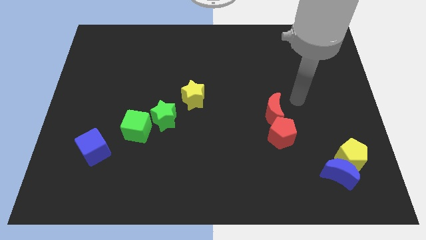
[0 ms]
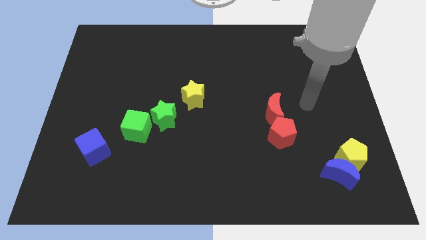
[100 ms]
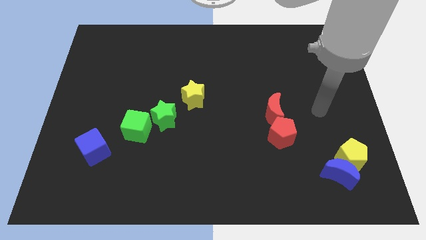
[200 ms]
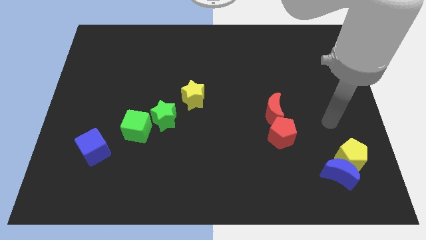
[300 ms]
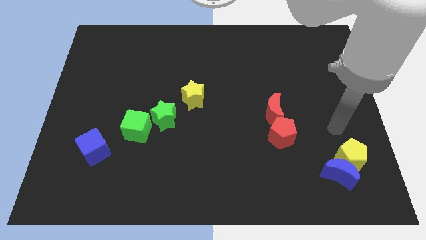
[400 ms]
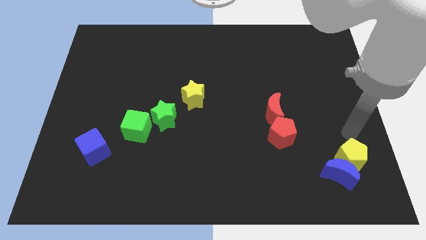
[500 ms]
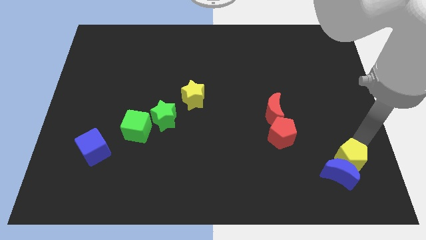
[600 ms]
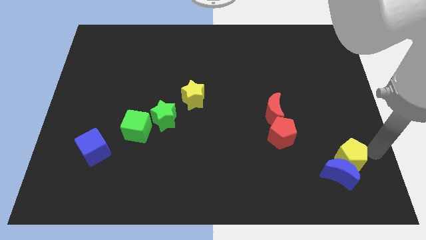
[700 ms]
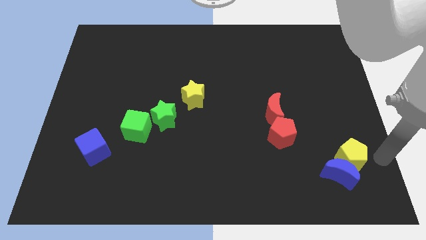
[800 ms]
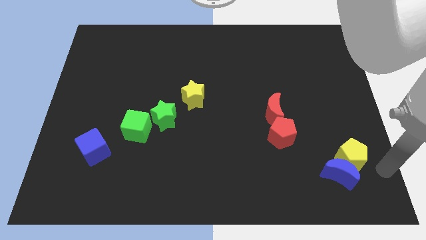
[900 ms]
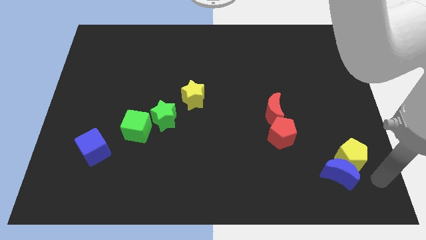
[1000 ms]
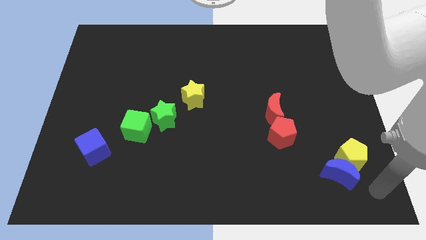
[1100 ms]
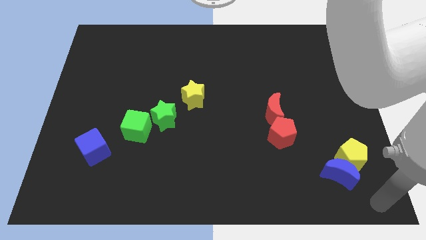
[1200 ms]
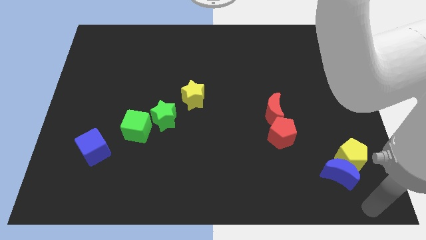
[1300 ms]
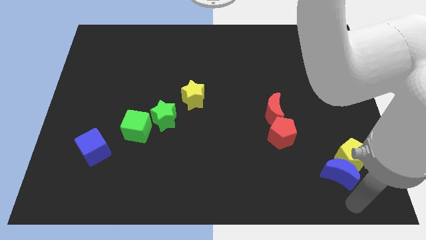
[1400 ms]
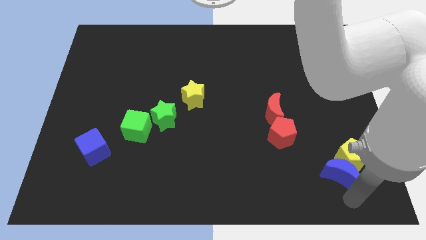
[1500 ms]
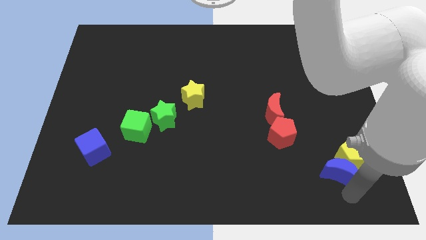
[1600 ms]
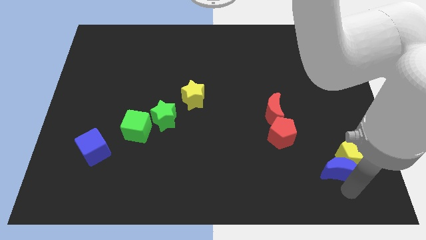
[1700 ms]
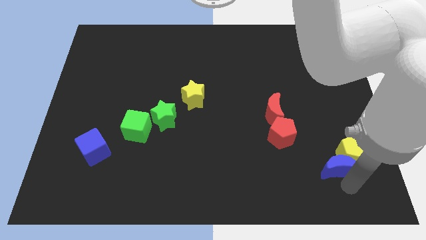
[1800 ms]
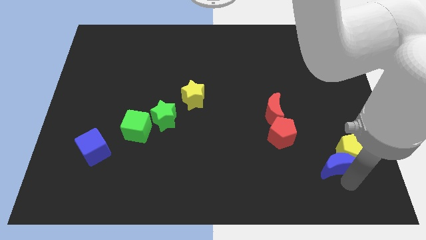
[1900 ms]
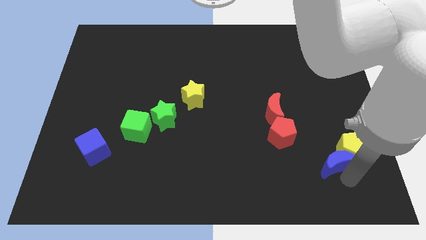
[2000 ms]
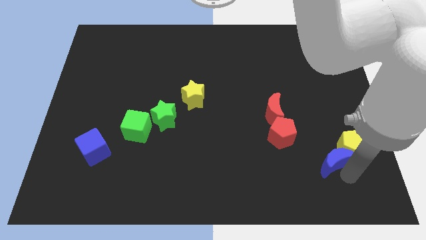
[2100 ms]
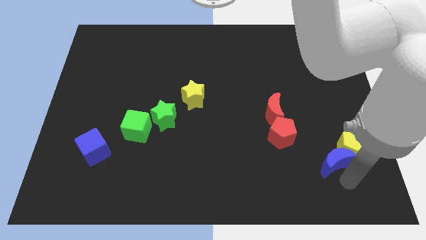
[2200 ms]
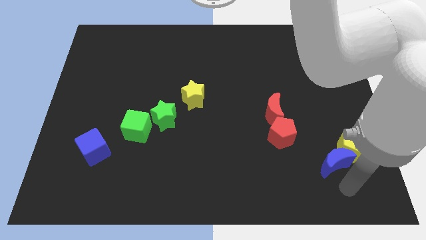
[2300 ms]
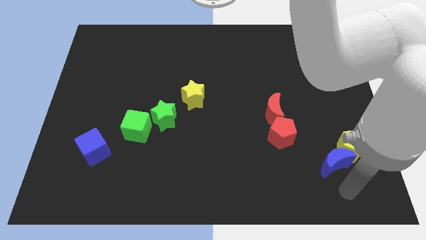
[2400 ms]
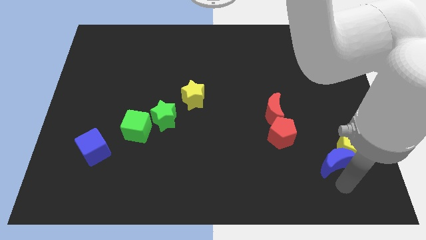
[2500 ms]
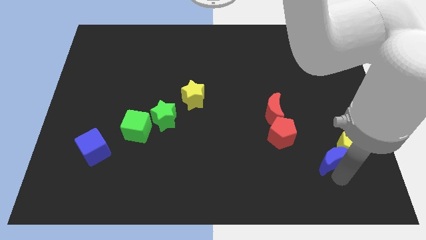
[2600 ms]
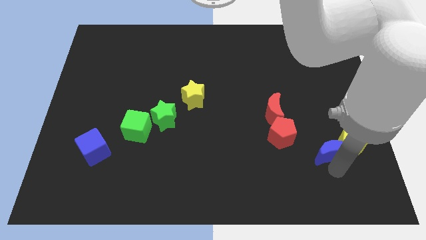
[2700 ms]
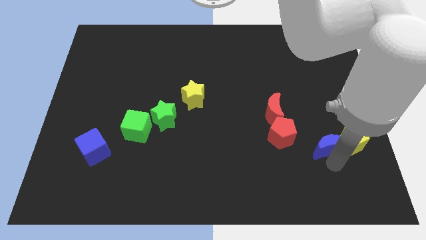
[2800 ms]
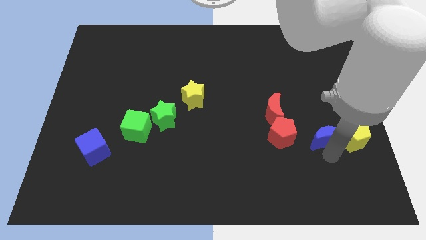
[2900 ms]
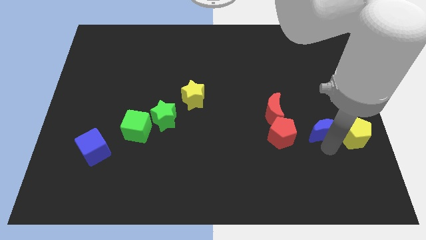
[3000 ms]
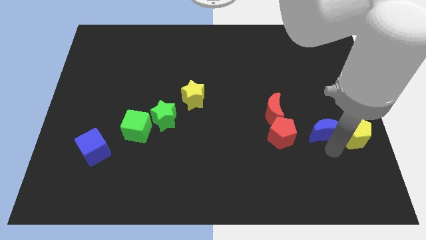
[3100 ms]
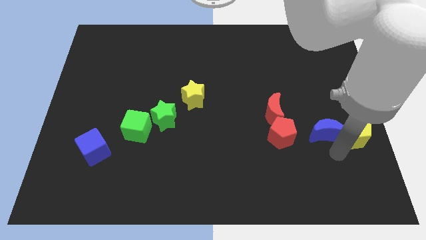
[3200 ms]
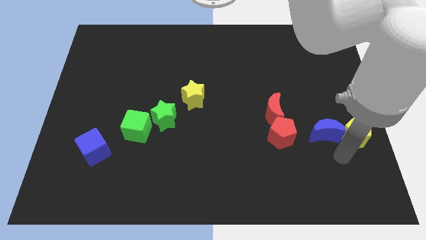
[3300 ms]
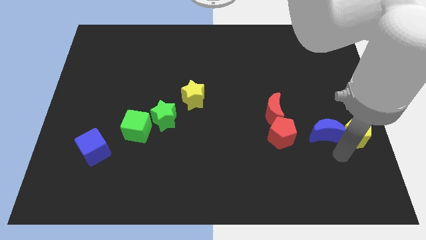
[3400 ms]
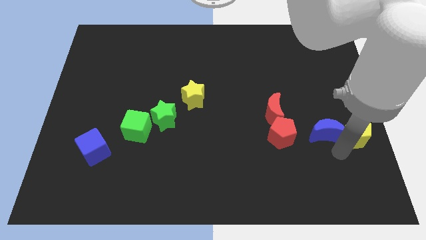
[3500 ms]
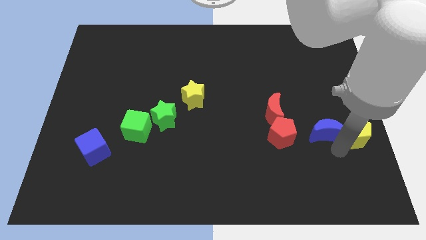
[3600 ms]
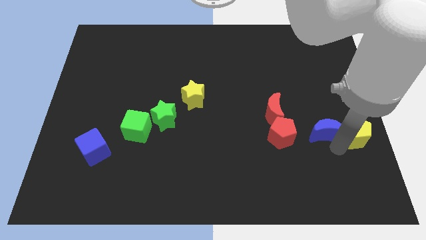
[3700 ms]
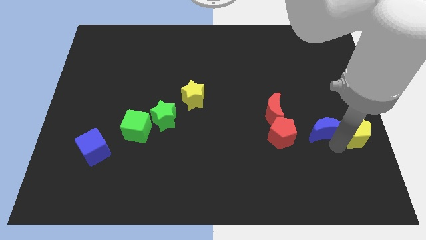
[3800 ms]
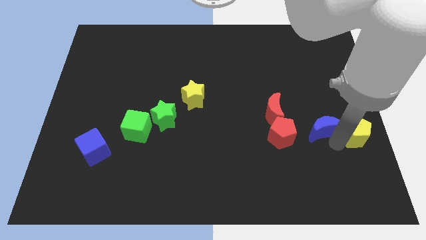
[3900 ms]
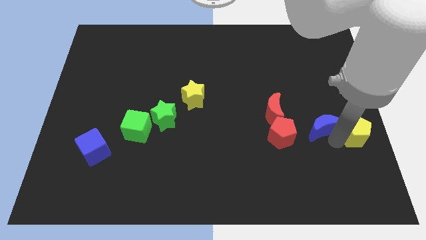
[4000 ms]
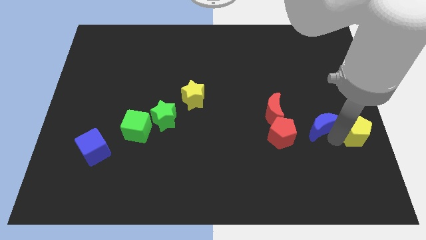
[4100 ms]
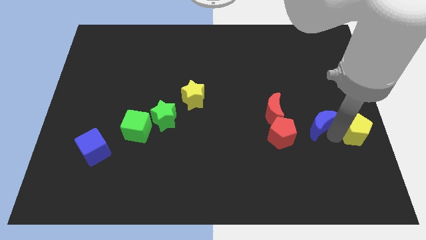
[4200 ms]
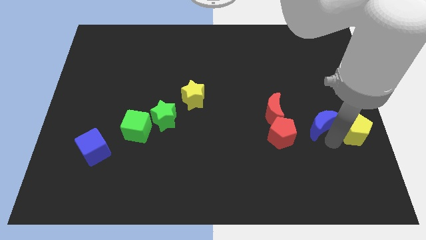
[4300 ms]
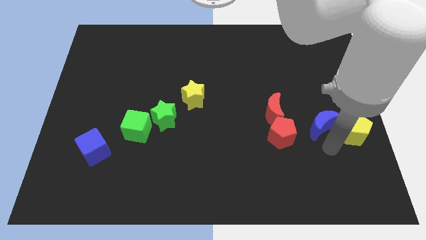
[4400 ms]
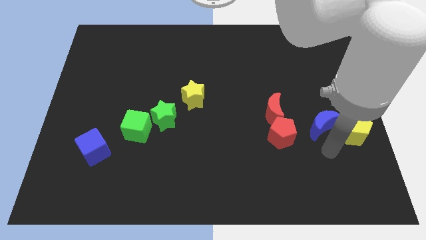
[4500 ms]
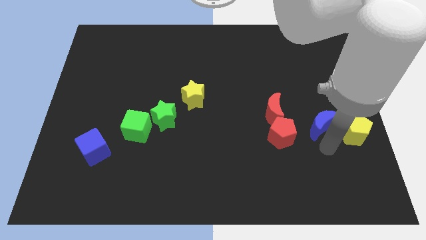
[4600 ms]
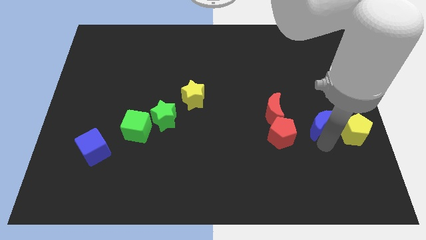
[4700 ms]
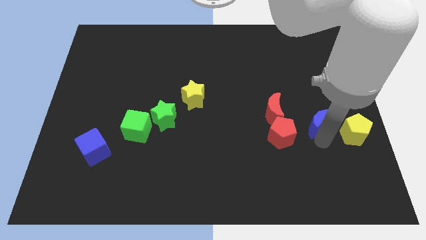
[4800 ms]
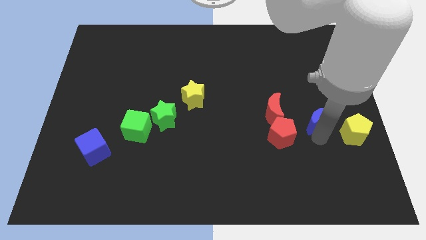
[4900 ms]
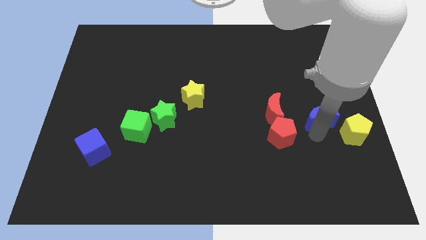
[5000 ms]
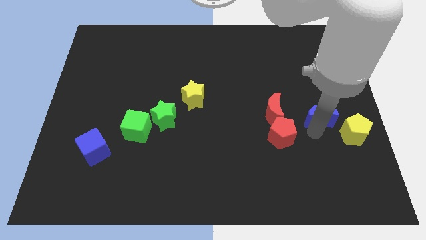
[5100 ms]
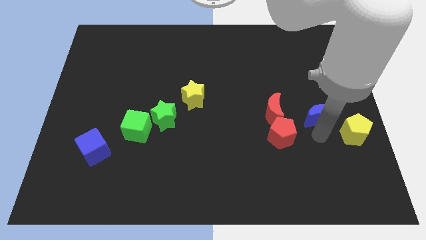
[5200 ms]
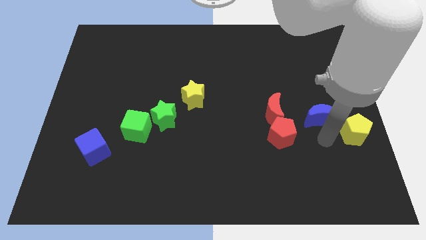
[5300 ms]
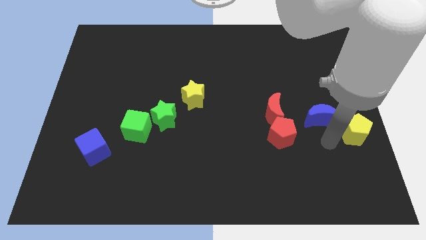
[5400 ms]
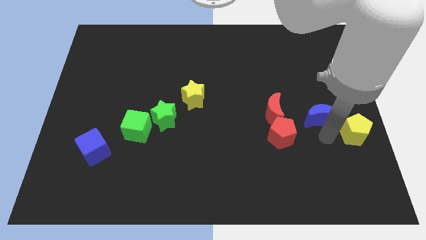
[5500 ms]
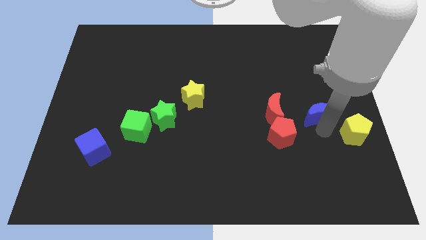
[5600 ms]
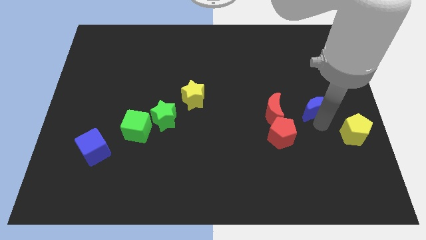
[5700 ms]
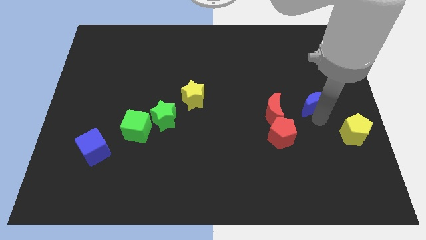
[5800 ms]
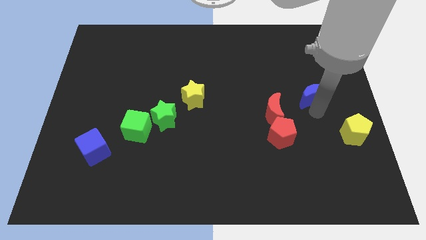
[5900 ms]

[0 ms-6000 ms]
move the blue moon upwards

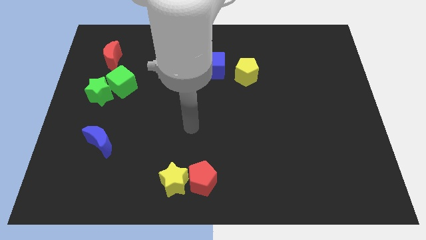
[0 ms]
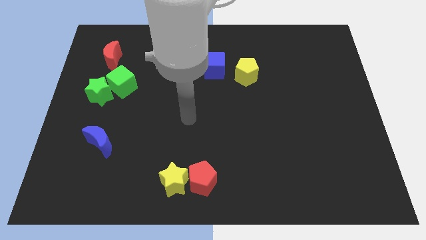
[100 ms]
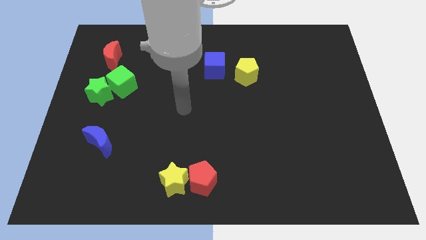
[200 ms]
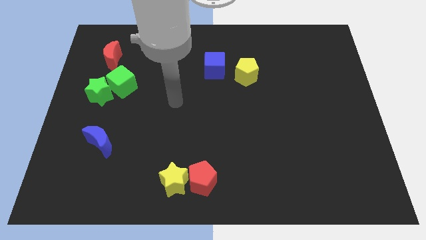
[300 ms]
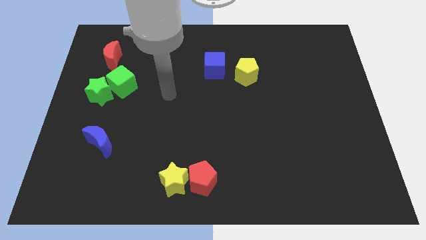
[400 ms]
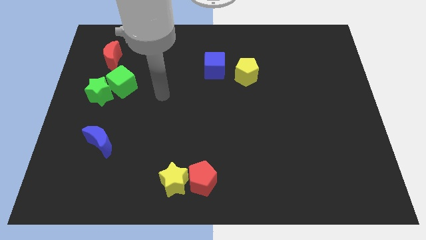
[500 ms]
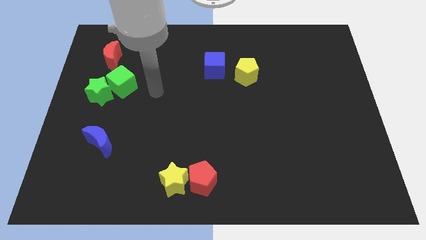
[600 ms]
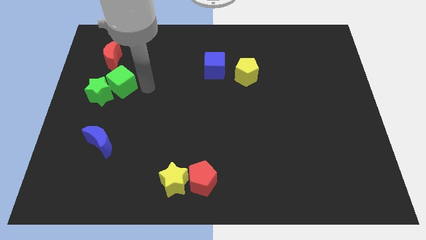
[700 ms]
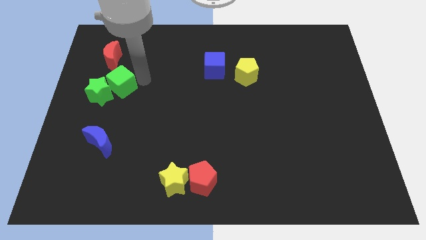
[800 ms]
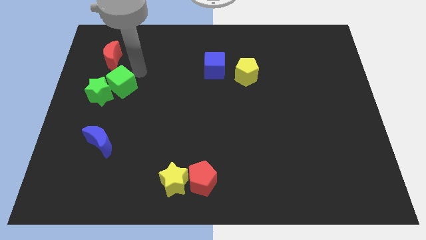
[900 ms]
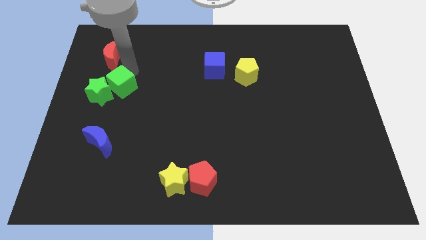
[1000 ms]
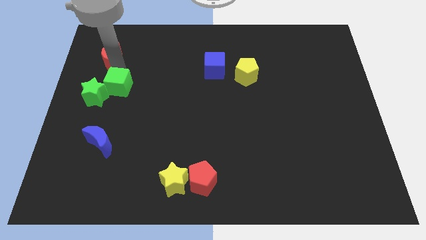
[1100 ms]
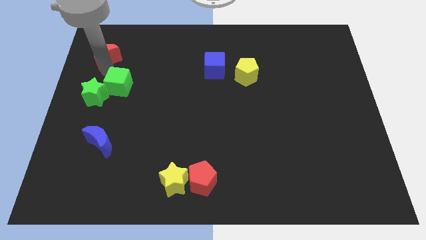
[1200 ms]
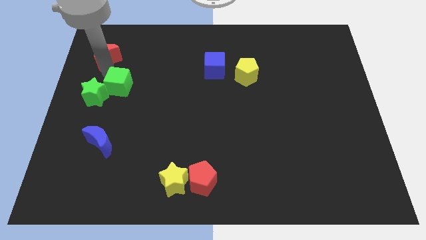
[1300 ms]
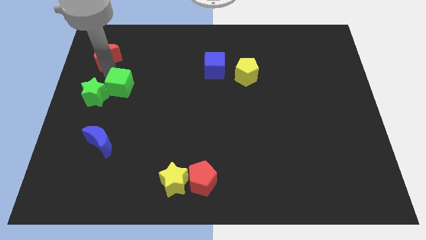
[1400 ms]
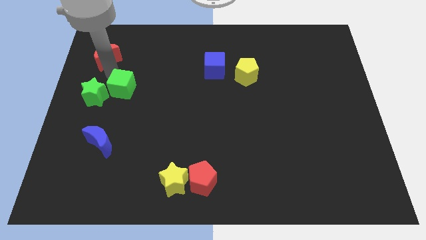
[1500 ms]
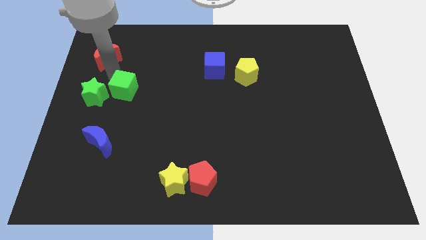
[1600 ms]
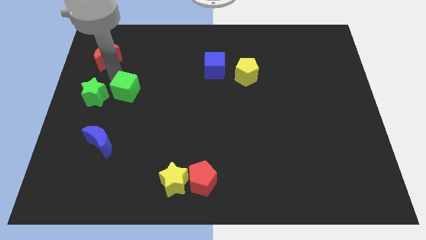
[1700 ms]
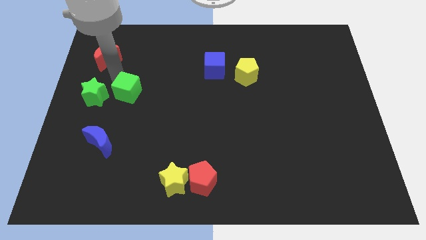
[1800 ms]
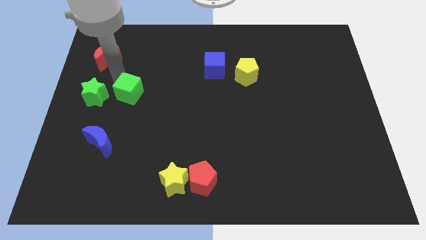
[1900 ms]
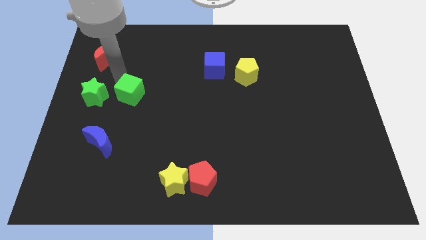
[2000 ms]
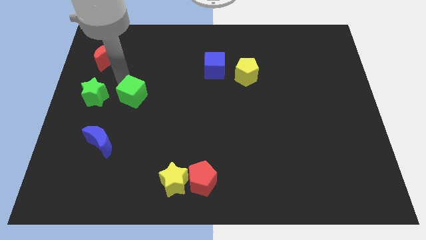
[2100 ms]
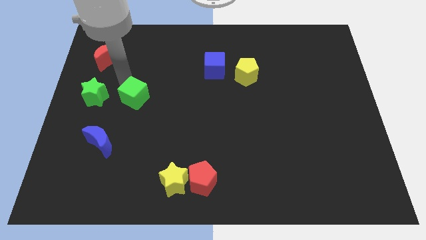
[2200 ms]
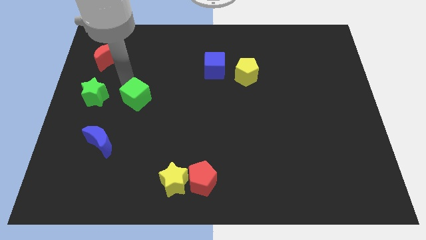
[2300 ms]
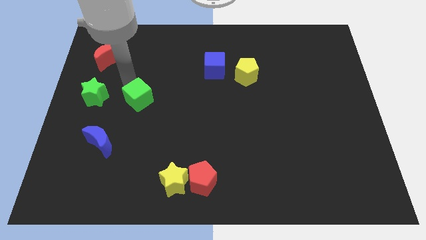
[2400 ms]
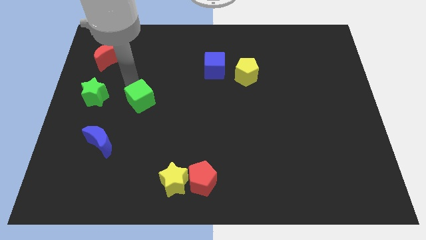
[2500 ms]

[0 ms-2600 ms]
slightly slide the green cube down and right
